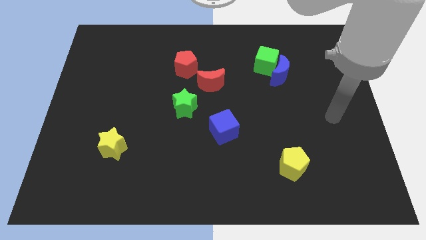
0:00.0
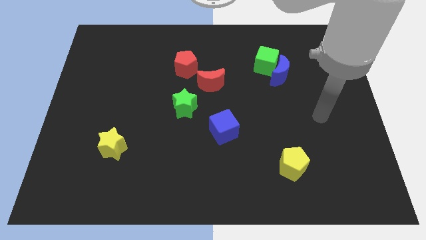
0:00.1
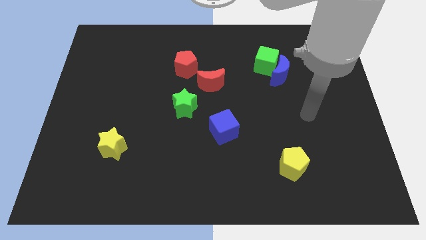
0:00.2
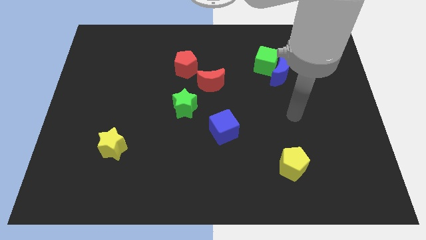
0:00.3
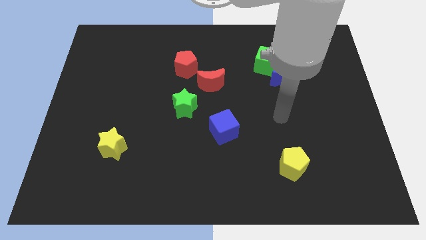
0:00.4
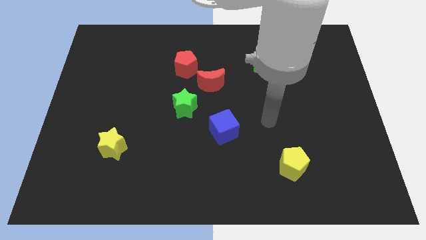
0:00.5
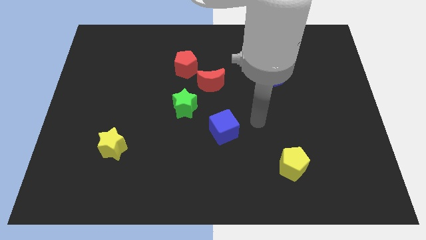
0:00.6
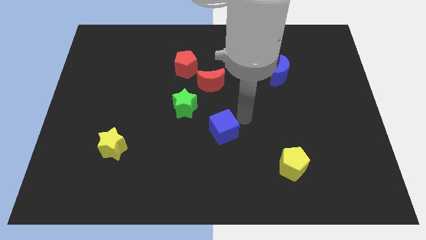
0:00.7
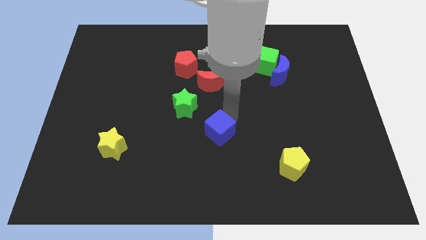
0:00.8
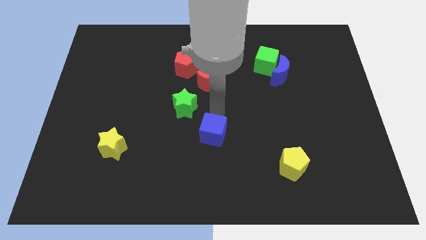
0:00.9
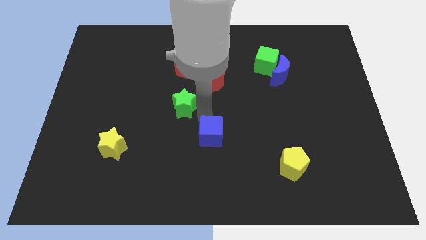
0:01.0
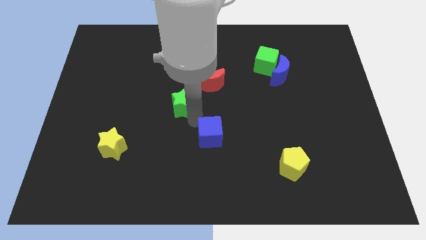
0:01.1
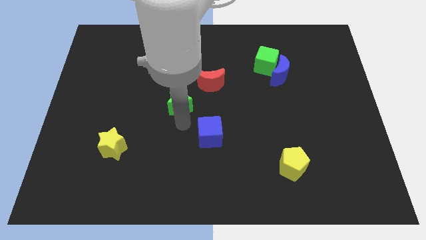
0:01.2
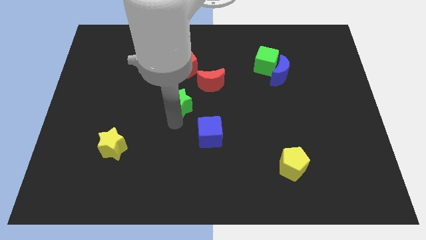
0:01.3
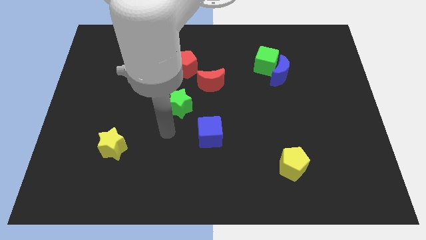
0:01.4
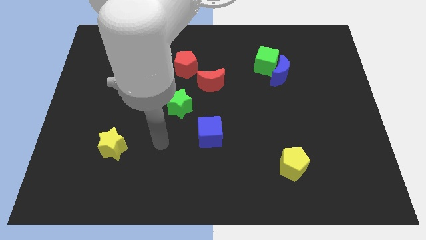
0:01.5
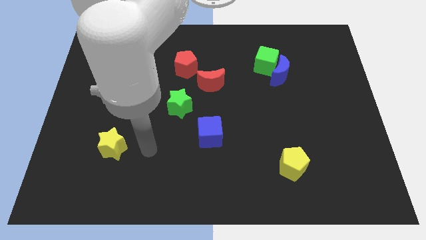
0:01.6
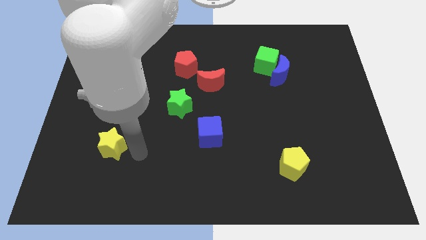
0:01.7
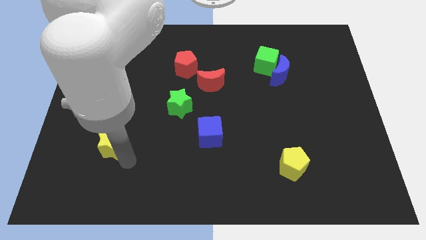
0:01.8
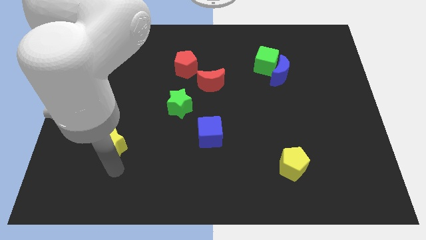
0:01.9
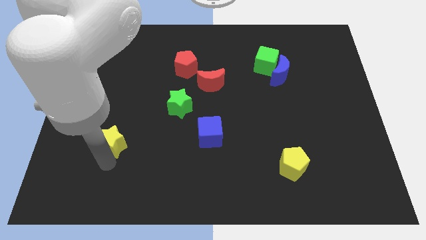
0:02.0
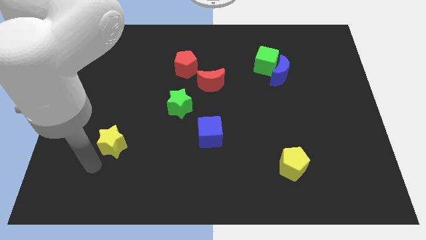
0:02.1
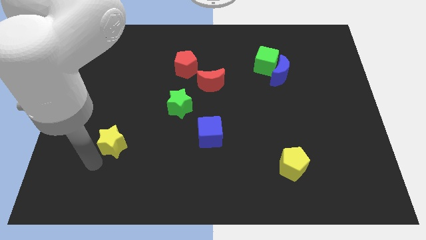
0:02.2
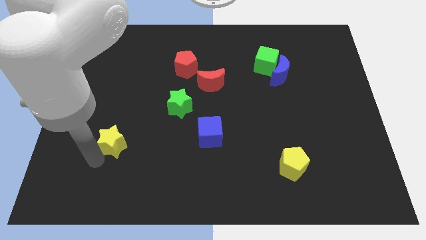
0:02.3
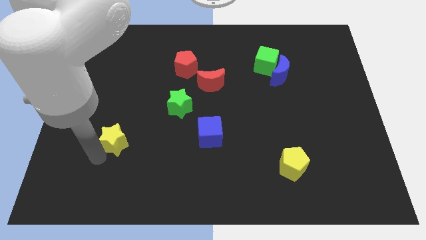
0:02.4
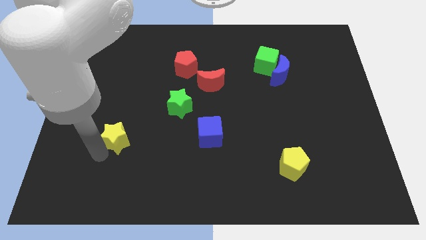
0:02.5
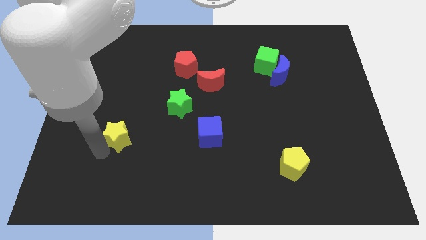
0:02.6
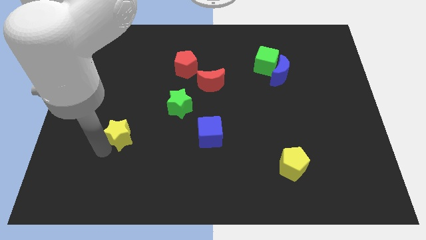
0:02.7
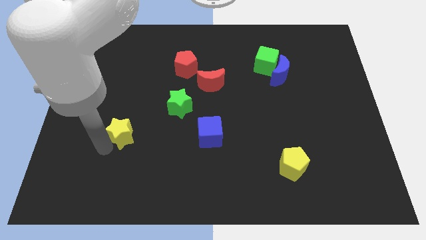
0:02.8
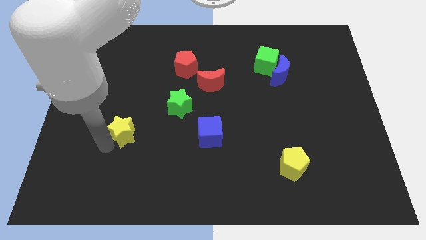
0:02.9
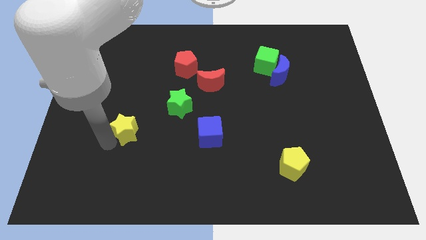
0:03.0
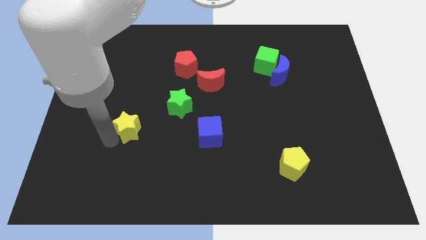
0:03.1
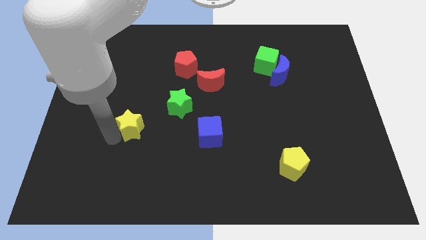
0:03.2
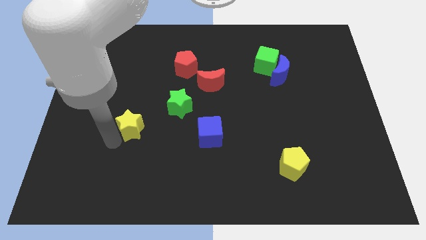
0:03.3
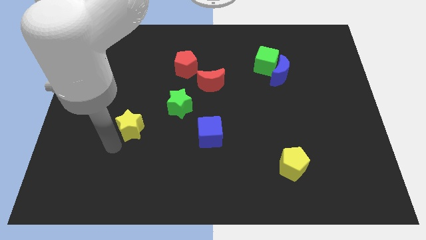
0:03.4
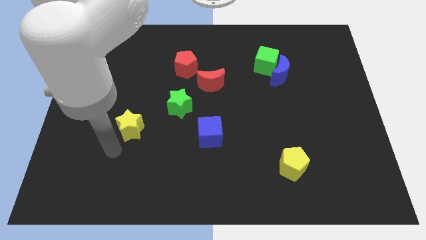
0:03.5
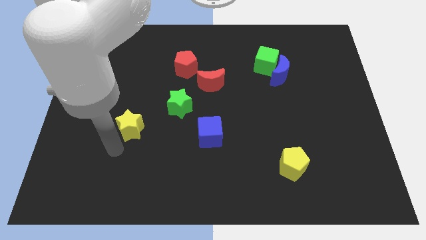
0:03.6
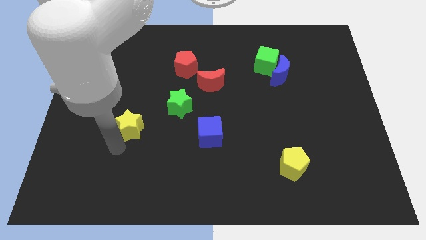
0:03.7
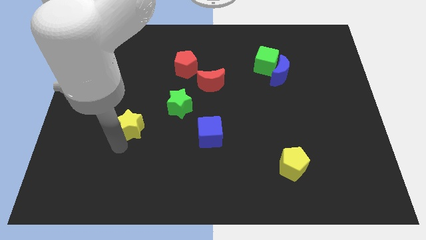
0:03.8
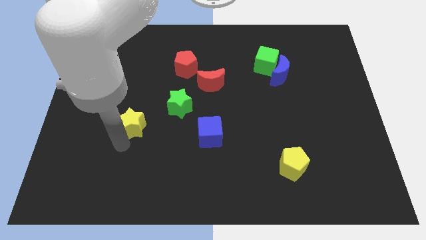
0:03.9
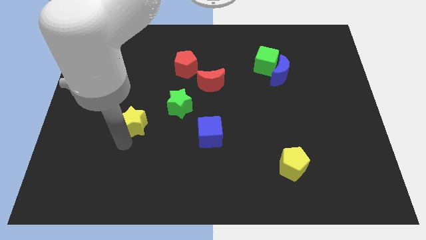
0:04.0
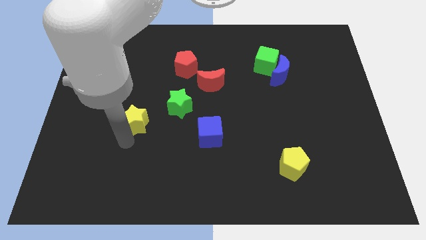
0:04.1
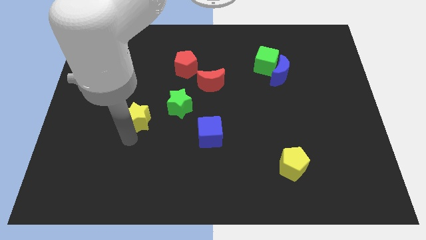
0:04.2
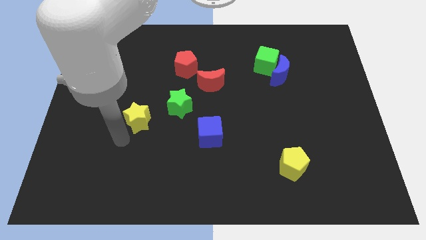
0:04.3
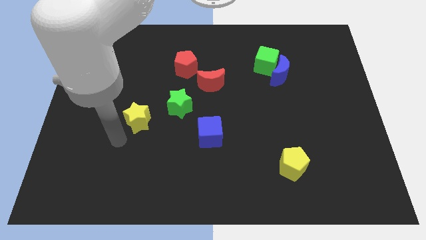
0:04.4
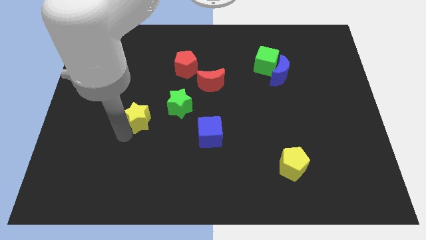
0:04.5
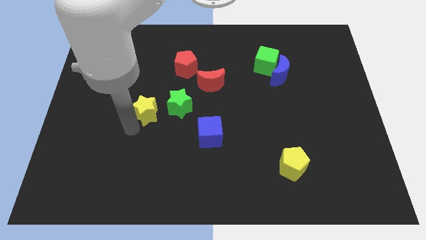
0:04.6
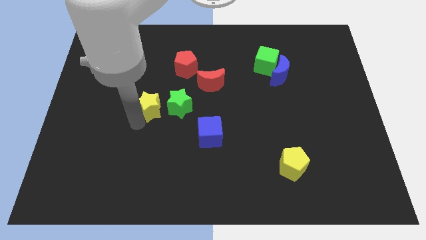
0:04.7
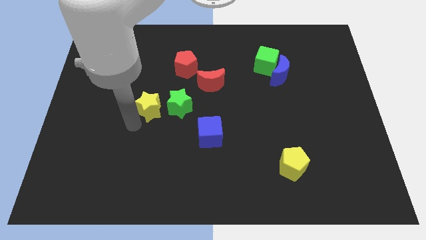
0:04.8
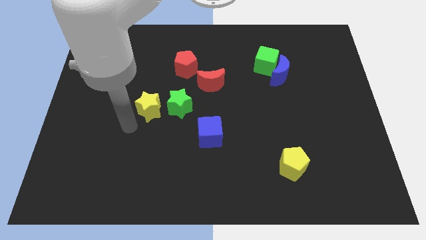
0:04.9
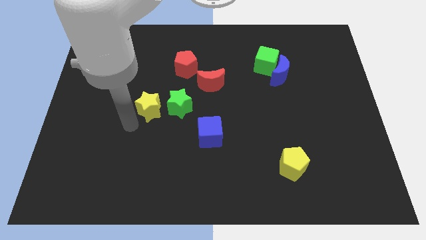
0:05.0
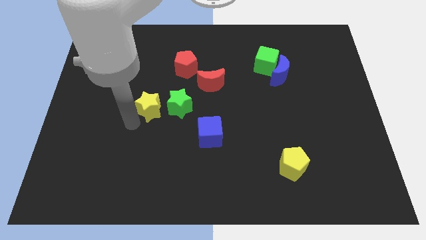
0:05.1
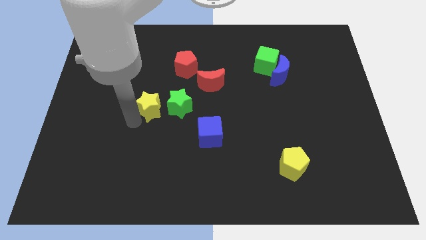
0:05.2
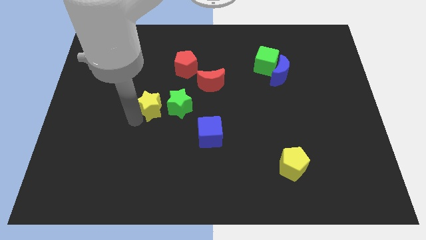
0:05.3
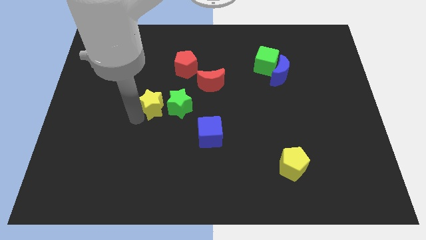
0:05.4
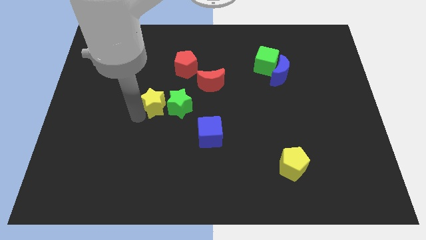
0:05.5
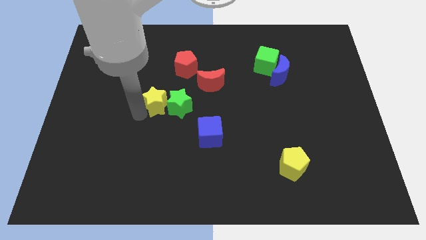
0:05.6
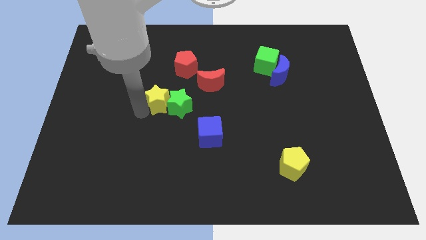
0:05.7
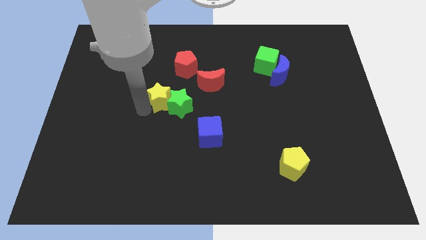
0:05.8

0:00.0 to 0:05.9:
slide the yellow star to the center

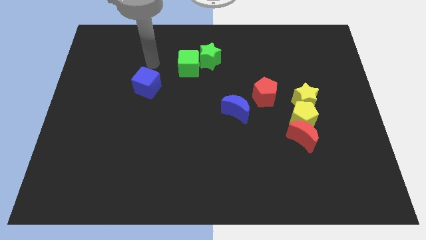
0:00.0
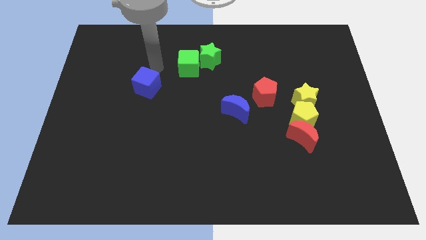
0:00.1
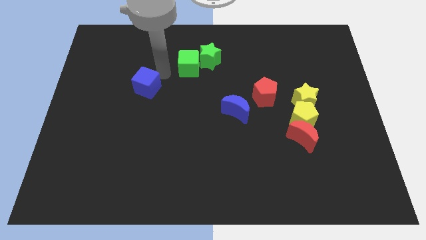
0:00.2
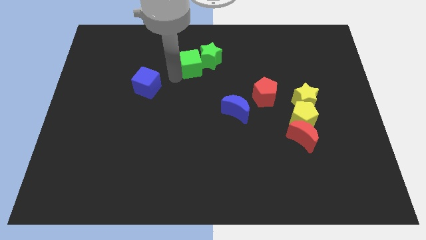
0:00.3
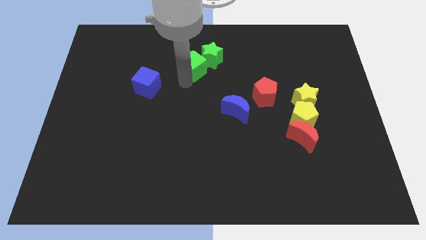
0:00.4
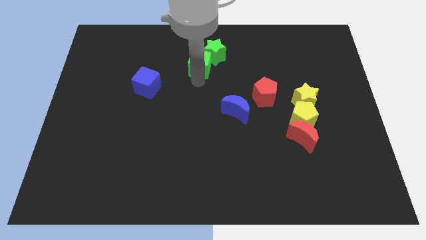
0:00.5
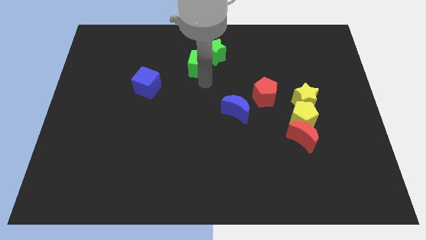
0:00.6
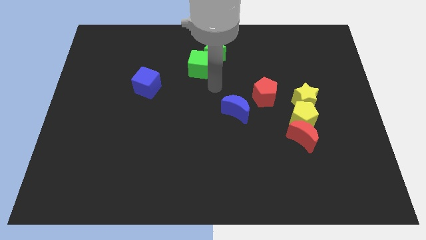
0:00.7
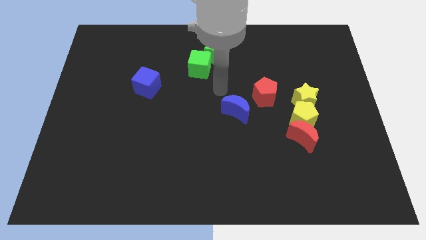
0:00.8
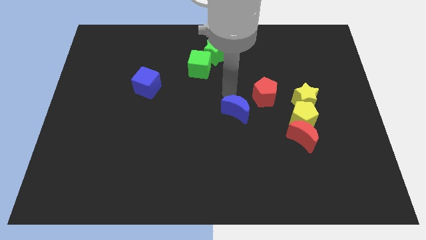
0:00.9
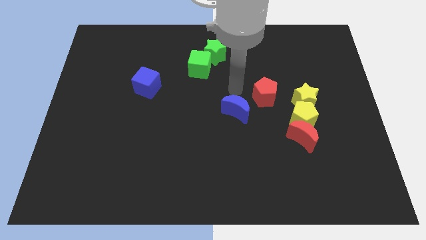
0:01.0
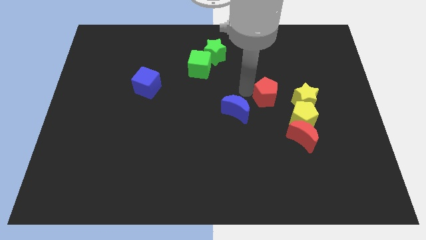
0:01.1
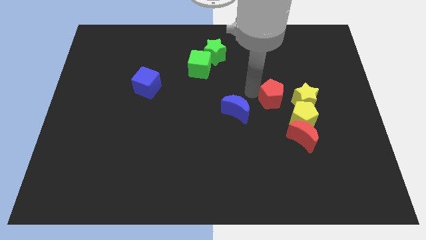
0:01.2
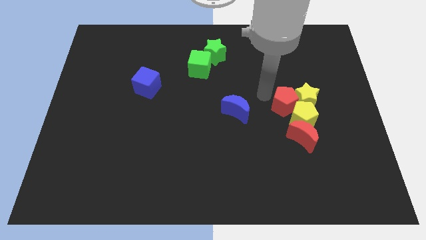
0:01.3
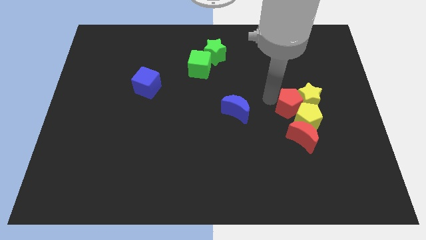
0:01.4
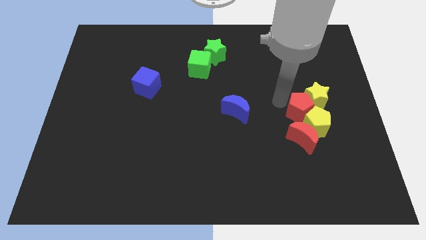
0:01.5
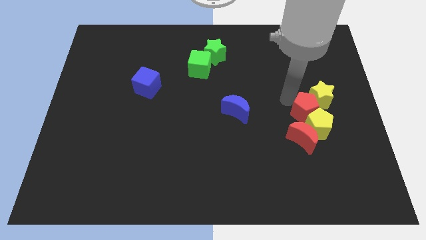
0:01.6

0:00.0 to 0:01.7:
push the yellow star to the right side of the board
